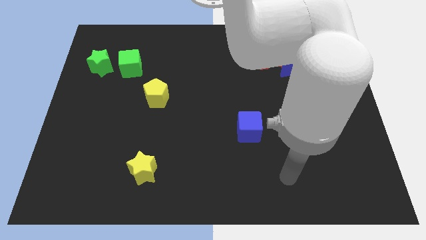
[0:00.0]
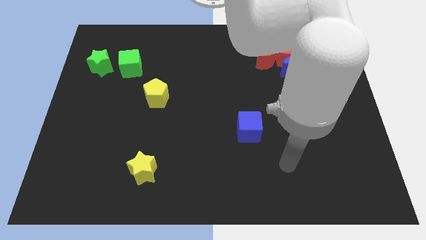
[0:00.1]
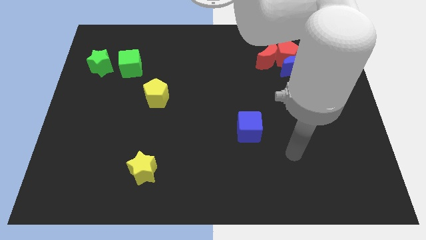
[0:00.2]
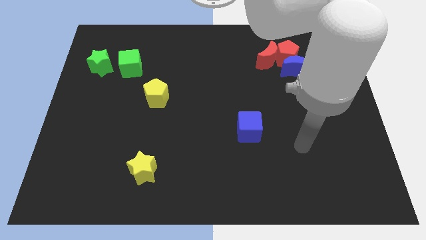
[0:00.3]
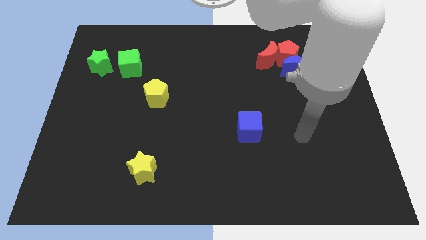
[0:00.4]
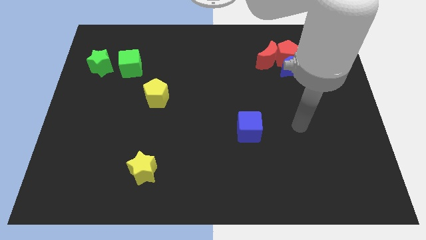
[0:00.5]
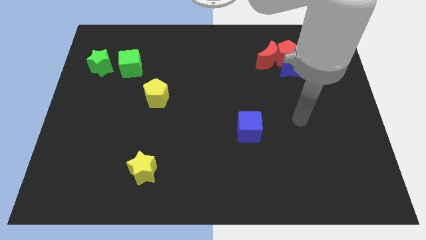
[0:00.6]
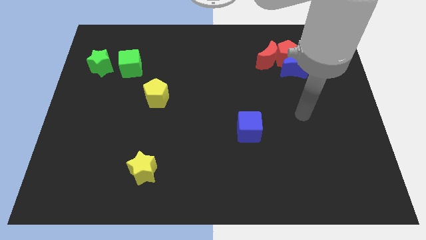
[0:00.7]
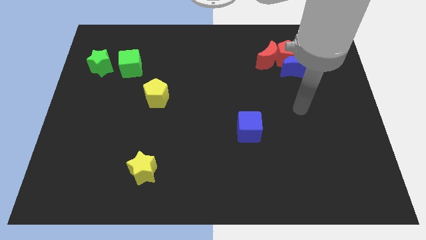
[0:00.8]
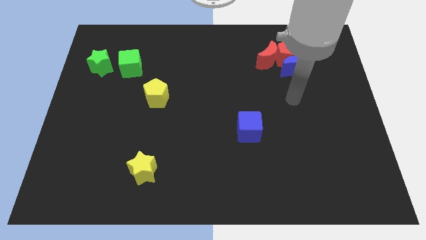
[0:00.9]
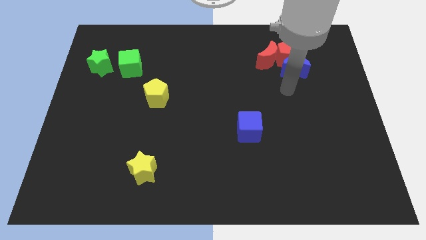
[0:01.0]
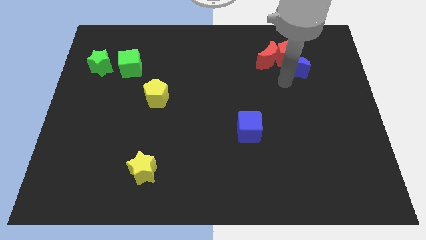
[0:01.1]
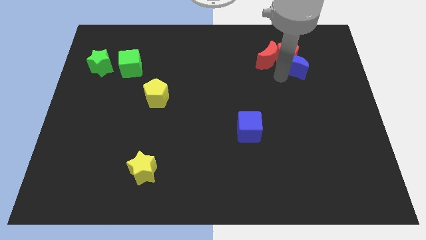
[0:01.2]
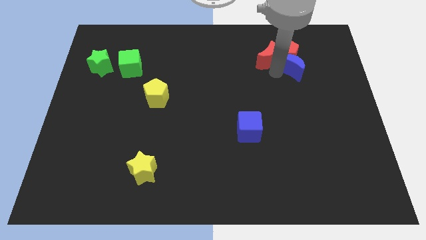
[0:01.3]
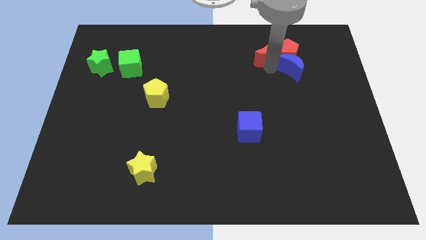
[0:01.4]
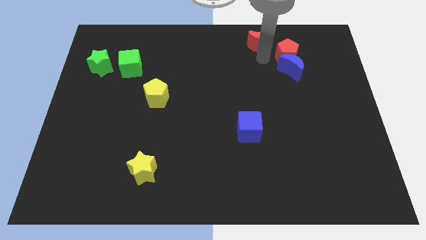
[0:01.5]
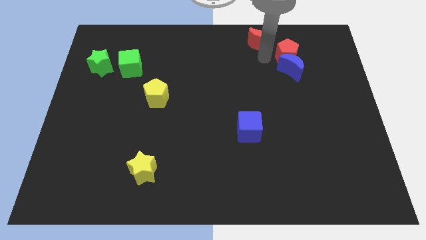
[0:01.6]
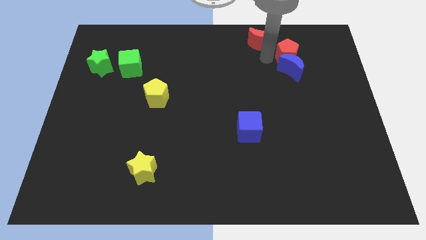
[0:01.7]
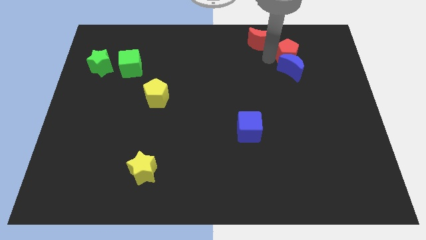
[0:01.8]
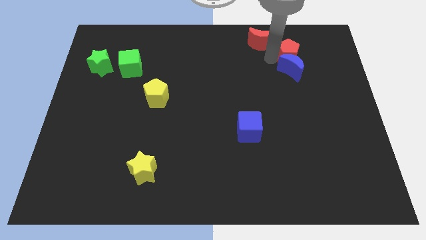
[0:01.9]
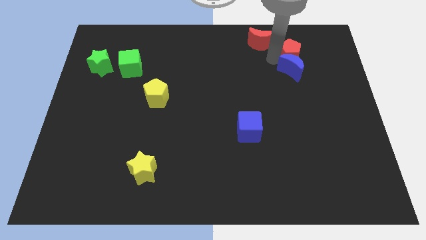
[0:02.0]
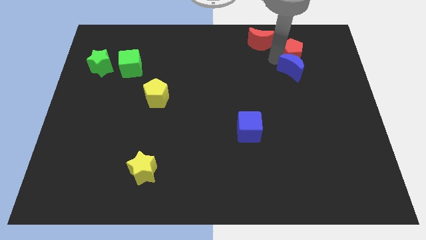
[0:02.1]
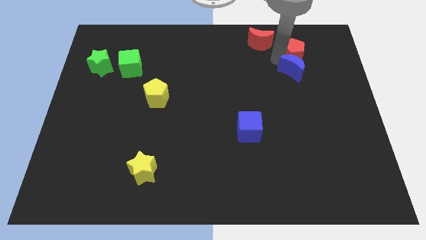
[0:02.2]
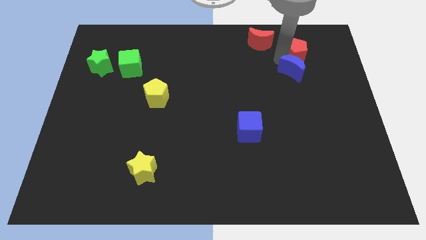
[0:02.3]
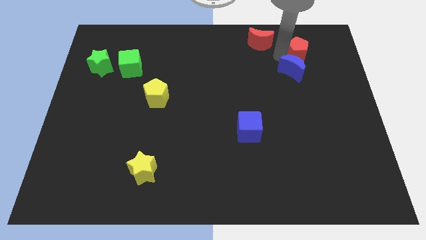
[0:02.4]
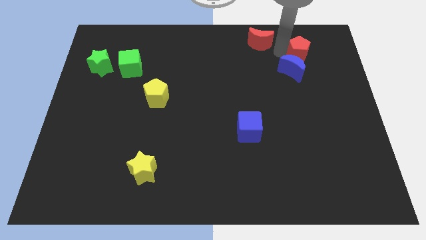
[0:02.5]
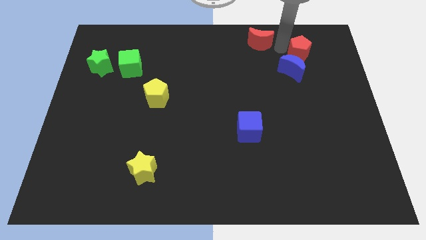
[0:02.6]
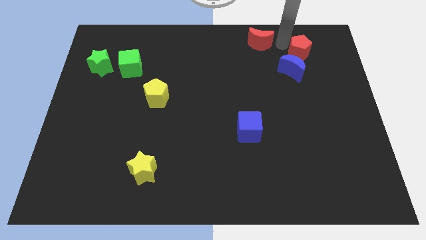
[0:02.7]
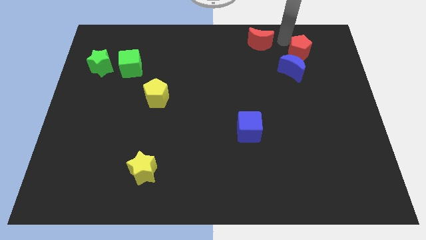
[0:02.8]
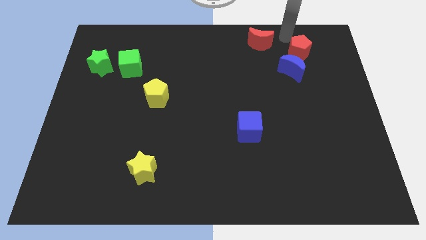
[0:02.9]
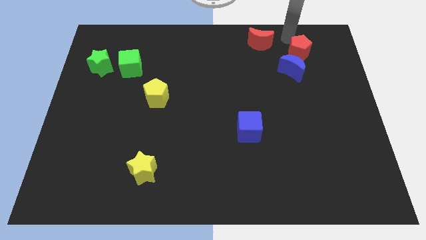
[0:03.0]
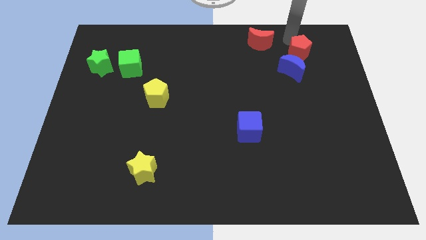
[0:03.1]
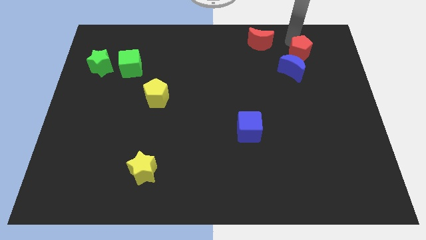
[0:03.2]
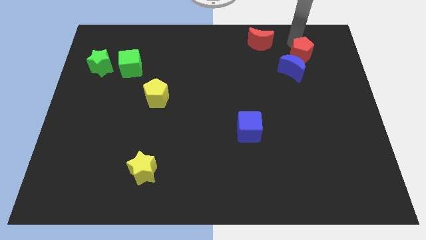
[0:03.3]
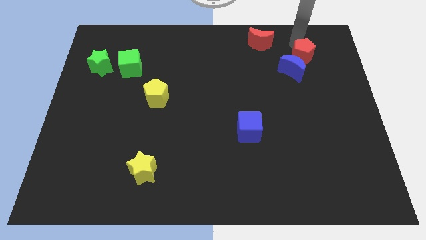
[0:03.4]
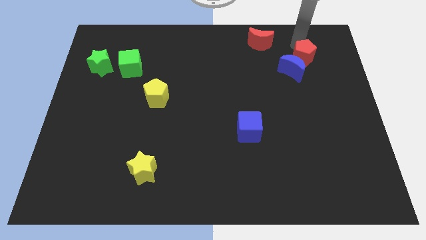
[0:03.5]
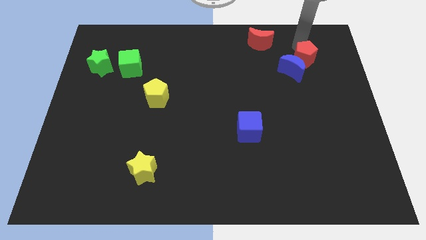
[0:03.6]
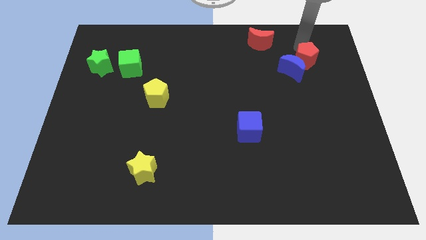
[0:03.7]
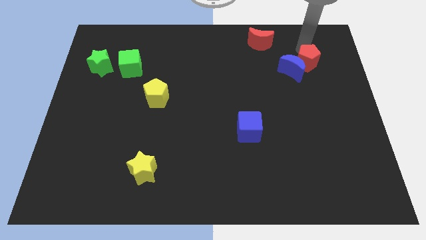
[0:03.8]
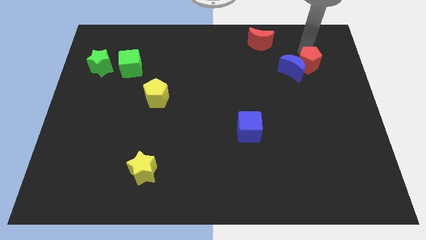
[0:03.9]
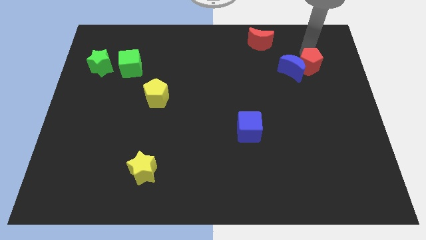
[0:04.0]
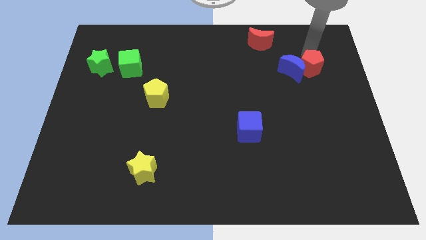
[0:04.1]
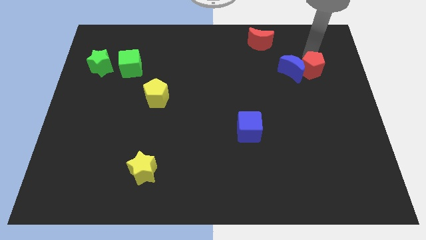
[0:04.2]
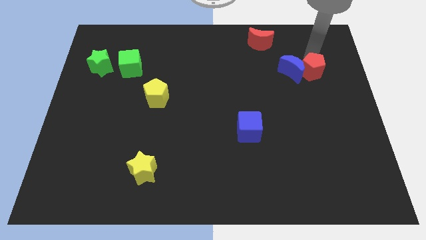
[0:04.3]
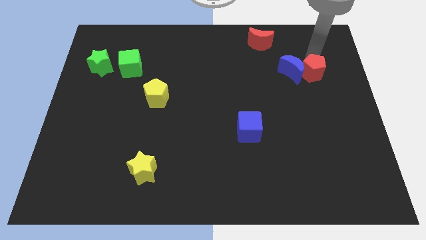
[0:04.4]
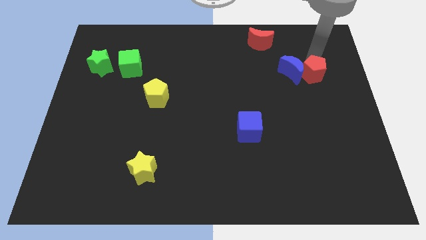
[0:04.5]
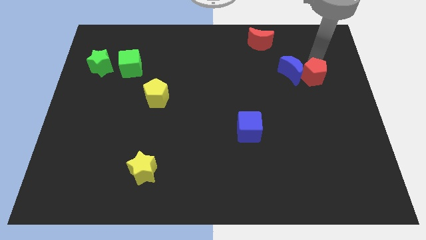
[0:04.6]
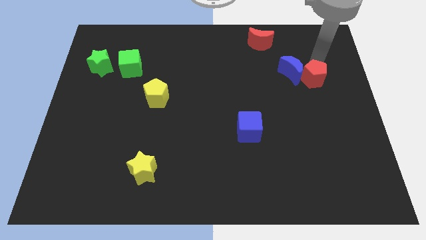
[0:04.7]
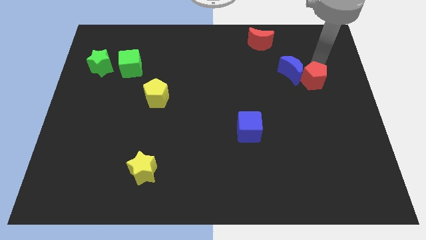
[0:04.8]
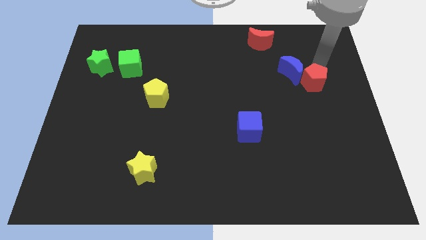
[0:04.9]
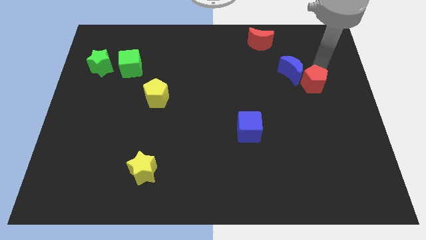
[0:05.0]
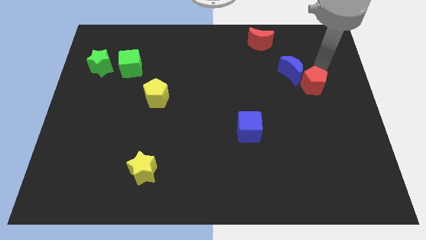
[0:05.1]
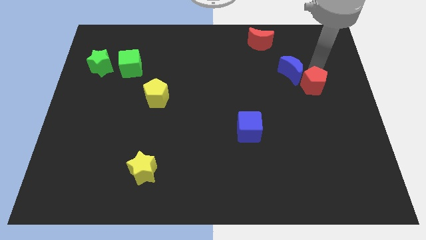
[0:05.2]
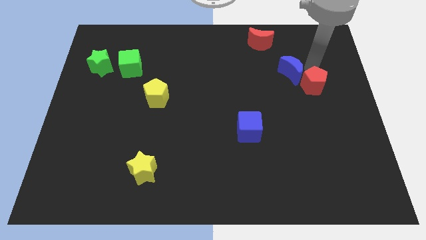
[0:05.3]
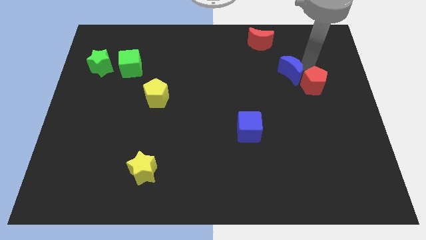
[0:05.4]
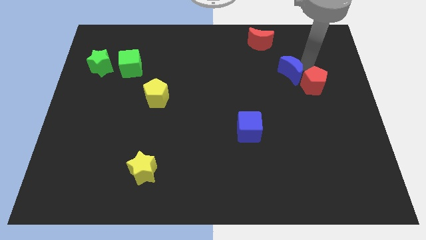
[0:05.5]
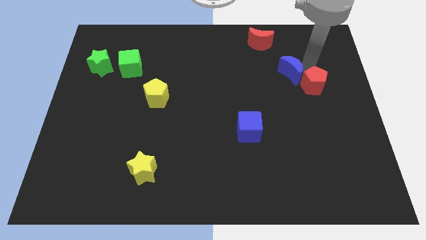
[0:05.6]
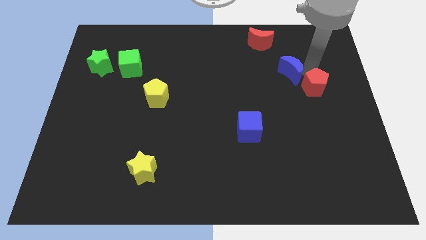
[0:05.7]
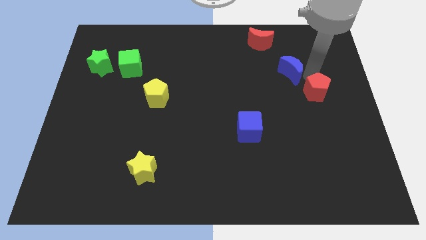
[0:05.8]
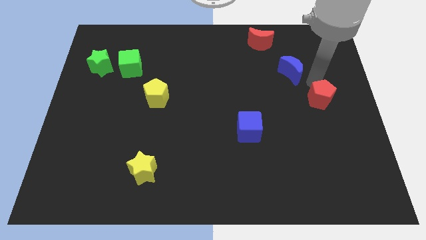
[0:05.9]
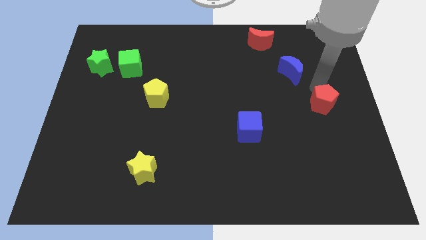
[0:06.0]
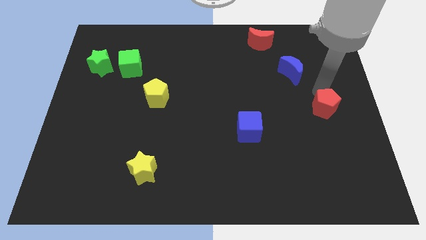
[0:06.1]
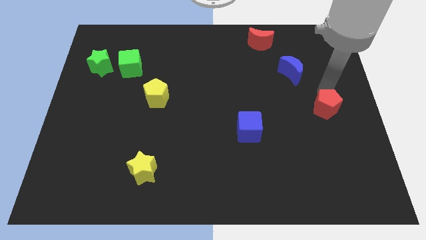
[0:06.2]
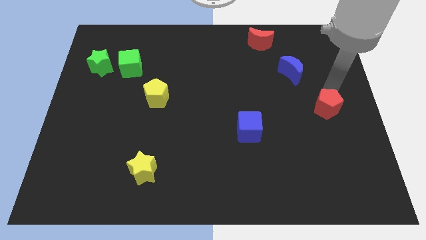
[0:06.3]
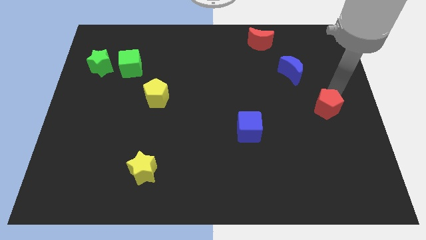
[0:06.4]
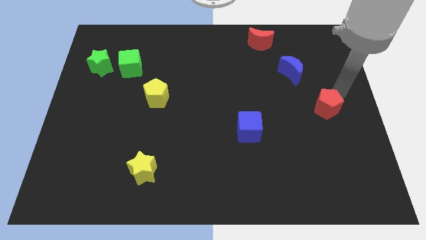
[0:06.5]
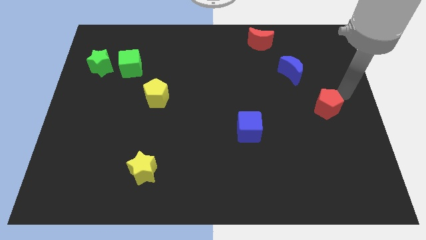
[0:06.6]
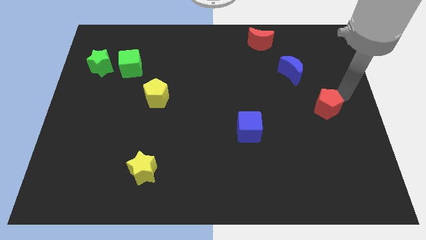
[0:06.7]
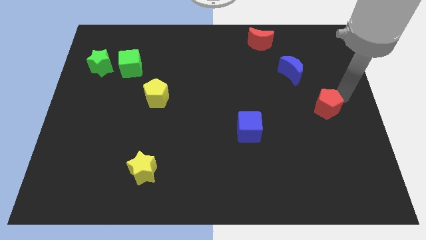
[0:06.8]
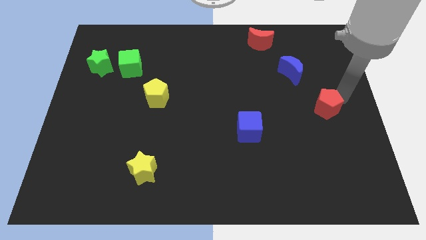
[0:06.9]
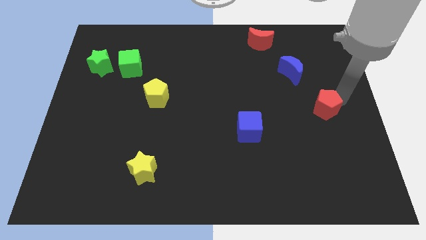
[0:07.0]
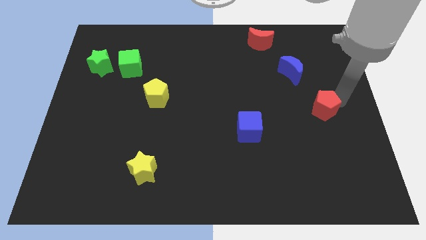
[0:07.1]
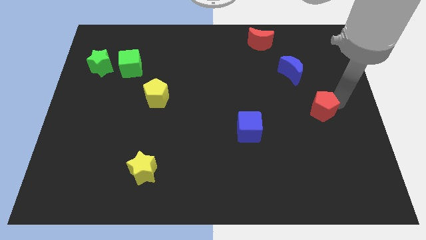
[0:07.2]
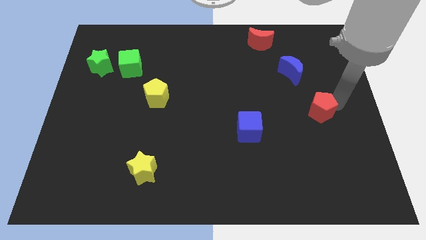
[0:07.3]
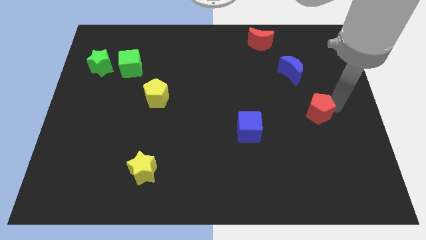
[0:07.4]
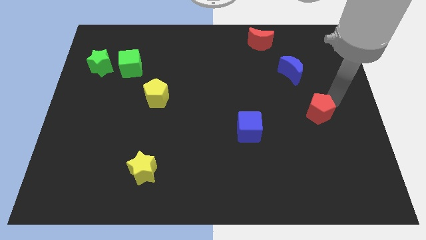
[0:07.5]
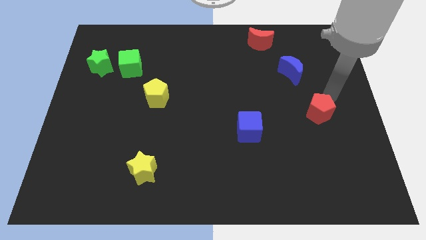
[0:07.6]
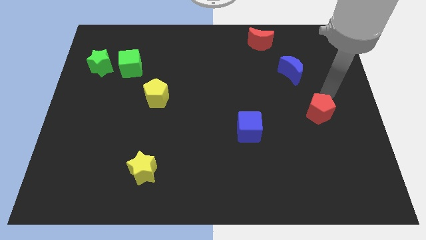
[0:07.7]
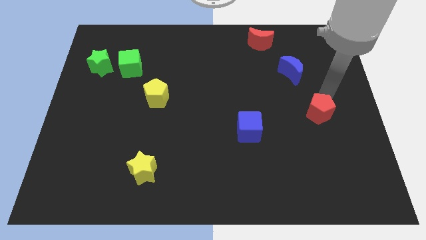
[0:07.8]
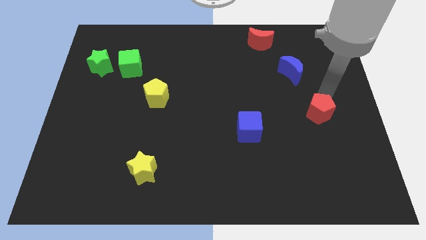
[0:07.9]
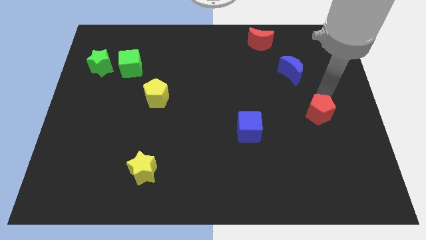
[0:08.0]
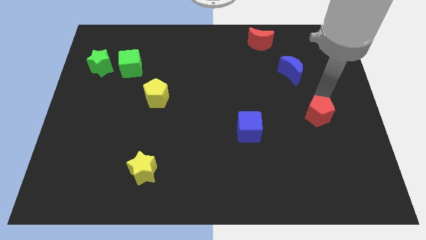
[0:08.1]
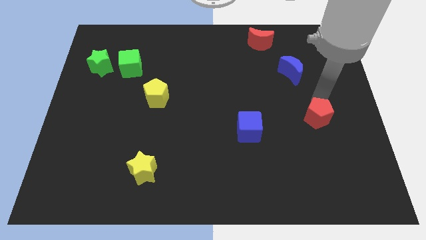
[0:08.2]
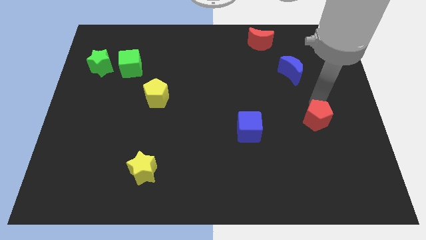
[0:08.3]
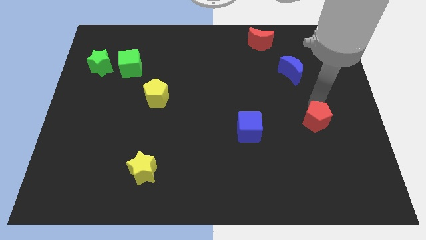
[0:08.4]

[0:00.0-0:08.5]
slide the red pentagon down
